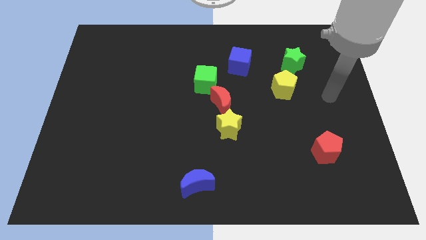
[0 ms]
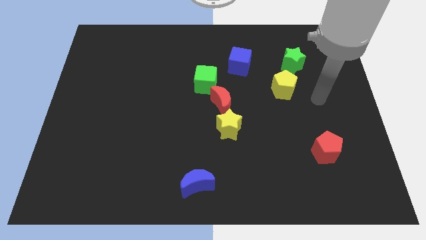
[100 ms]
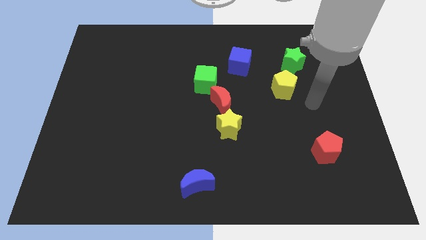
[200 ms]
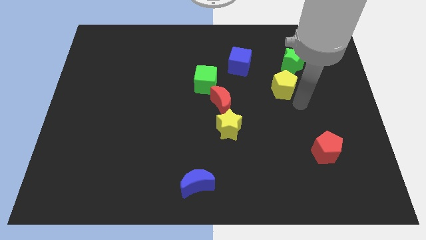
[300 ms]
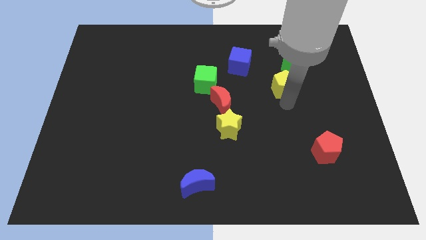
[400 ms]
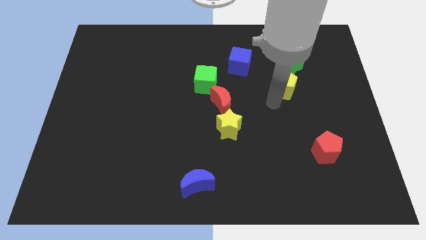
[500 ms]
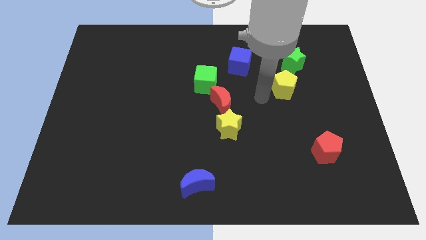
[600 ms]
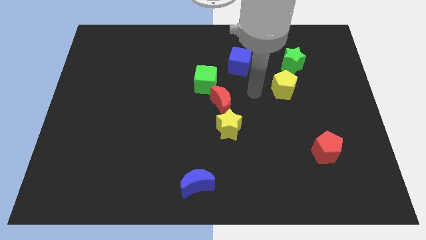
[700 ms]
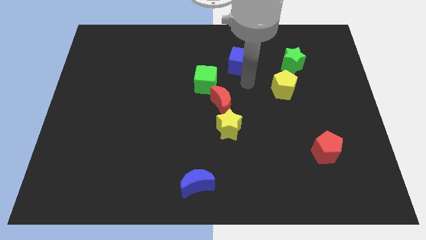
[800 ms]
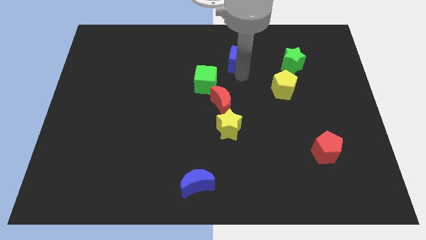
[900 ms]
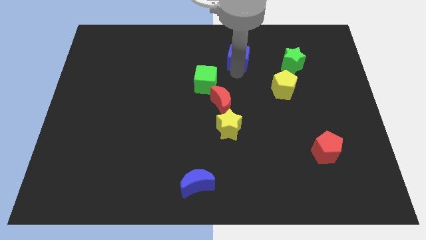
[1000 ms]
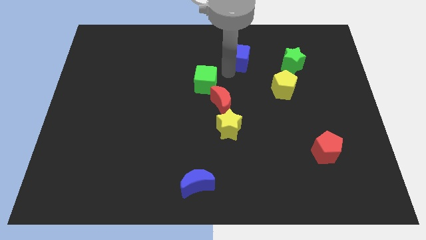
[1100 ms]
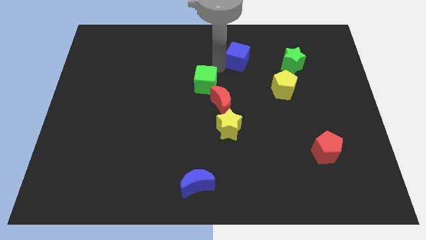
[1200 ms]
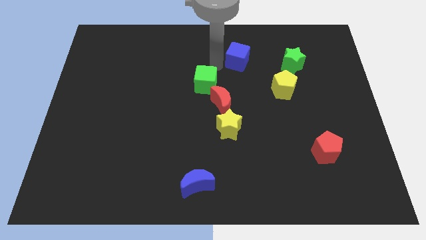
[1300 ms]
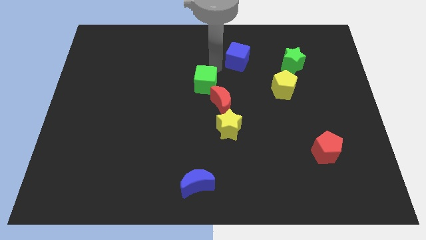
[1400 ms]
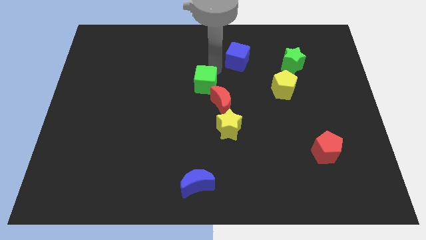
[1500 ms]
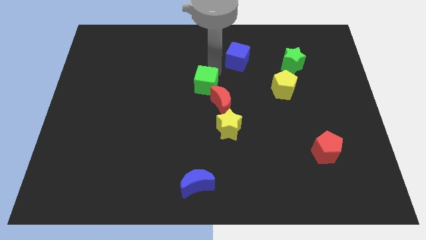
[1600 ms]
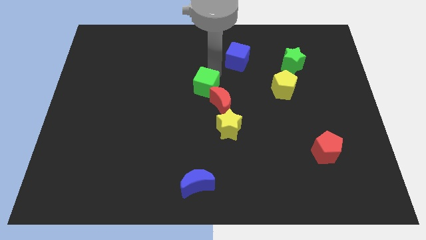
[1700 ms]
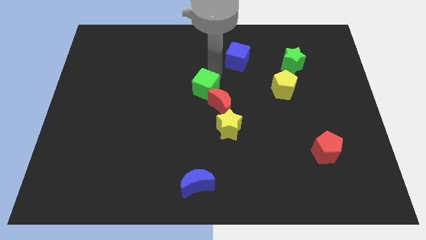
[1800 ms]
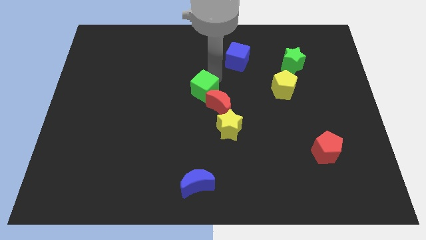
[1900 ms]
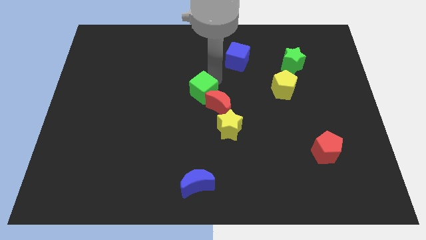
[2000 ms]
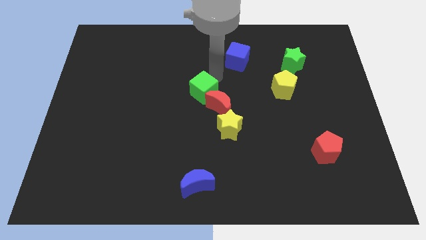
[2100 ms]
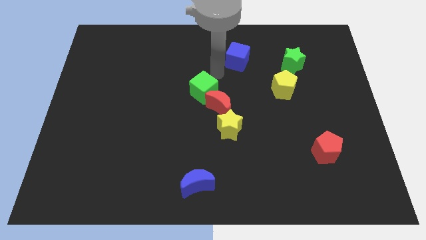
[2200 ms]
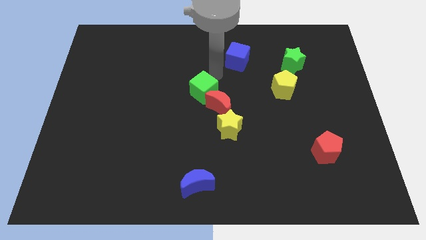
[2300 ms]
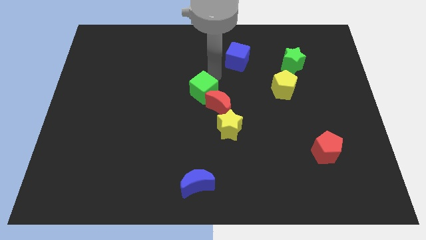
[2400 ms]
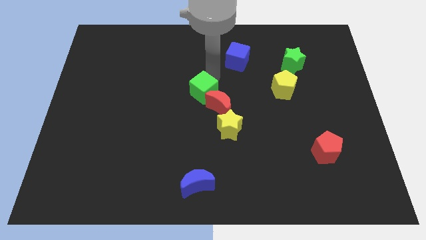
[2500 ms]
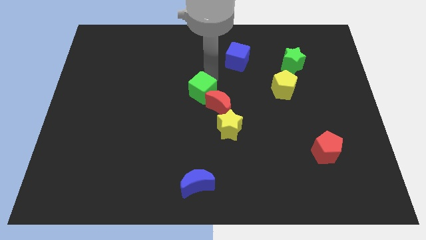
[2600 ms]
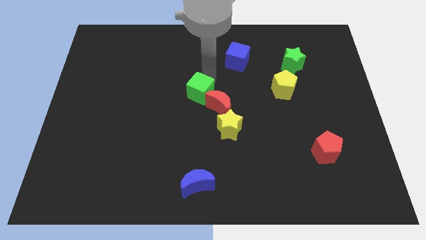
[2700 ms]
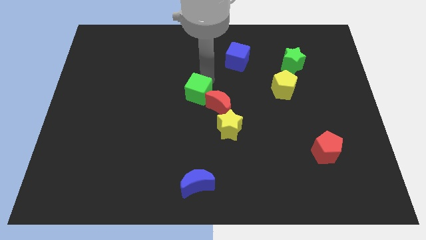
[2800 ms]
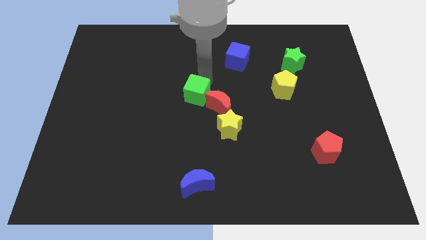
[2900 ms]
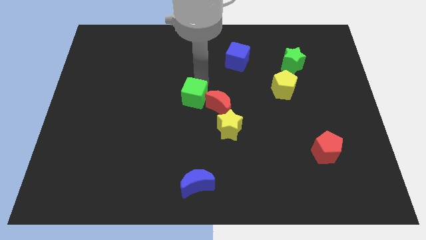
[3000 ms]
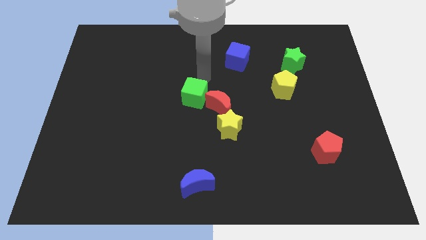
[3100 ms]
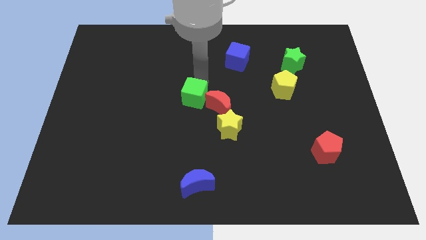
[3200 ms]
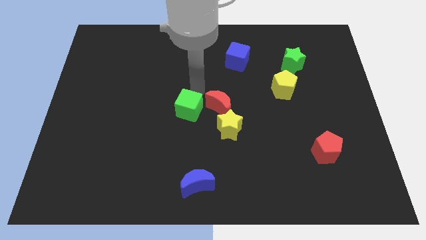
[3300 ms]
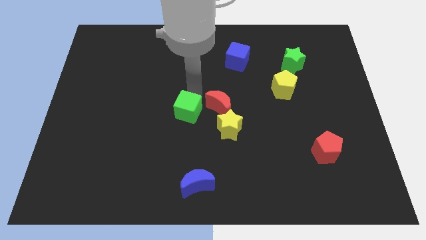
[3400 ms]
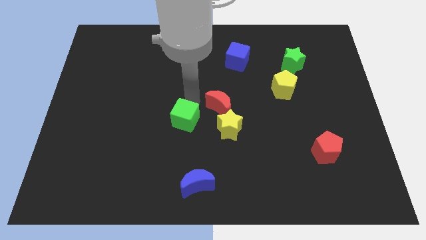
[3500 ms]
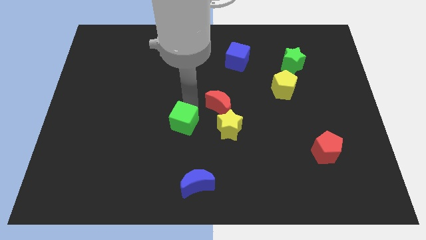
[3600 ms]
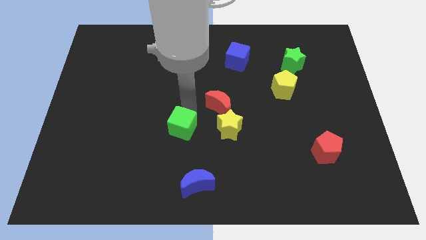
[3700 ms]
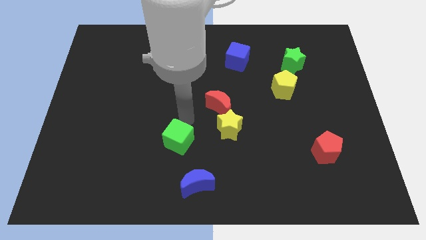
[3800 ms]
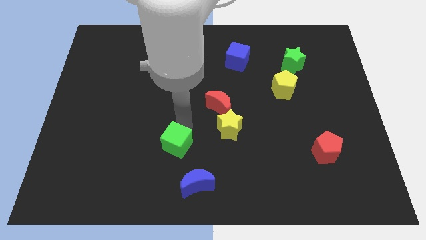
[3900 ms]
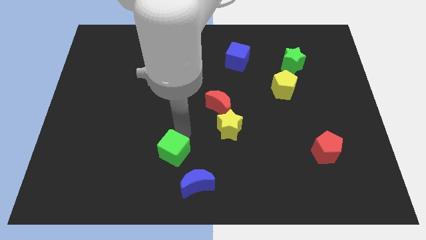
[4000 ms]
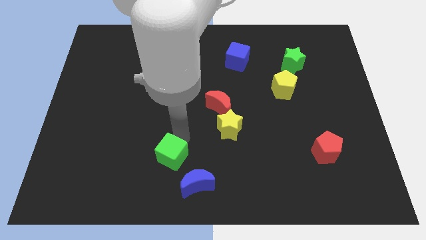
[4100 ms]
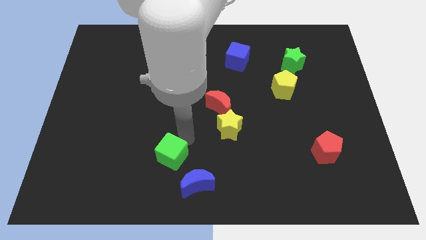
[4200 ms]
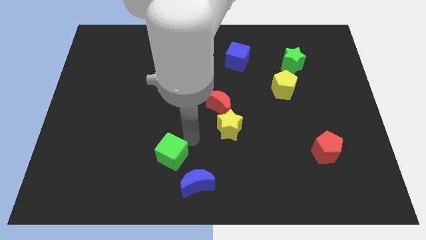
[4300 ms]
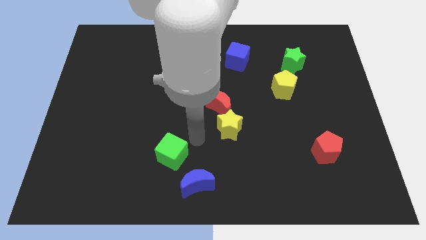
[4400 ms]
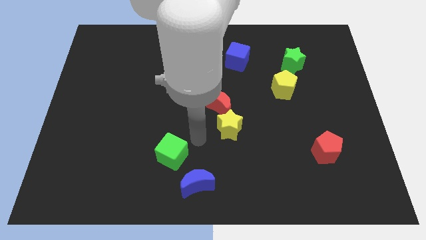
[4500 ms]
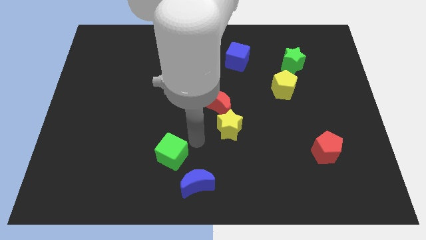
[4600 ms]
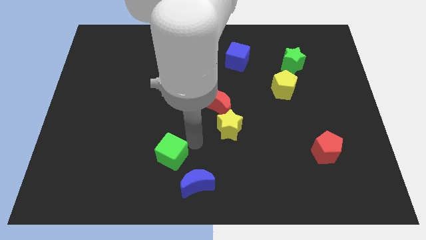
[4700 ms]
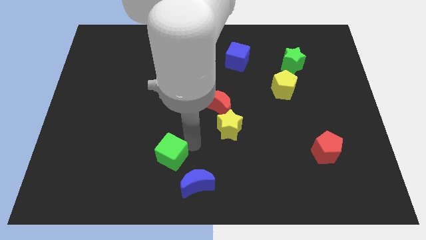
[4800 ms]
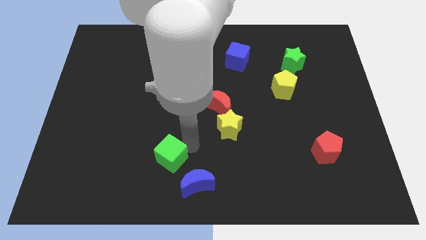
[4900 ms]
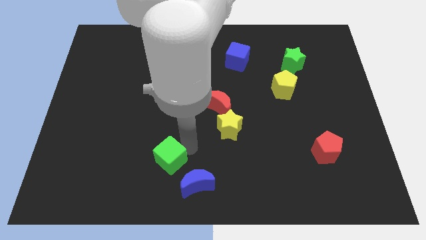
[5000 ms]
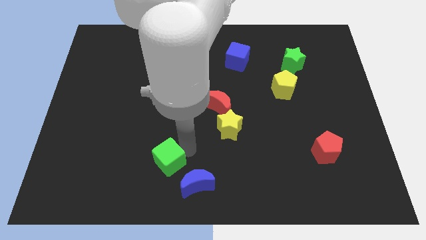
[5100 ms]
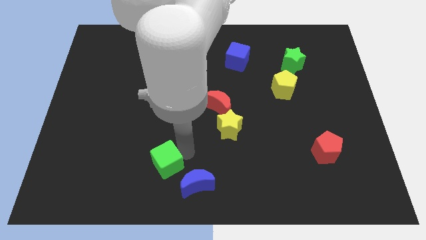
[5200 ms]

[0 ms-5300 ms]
put the green cube just left of the blue moon

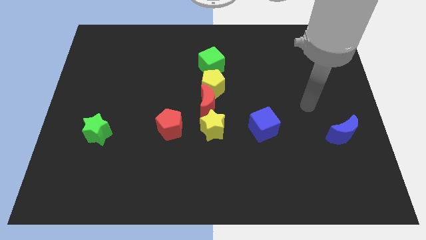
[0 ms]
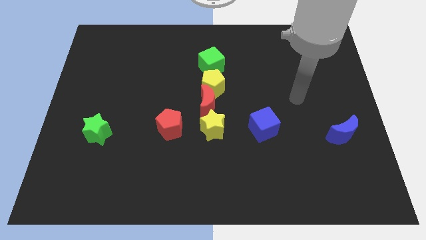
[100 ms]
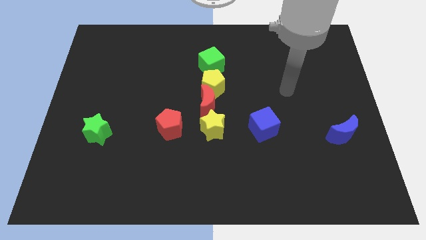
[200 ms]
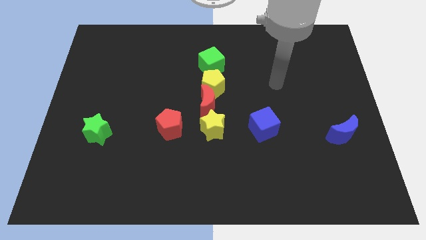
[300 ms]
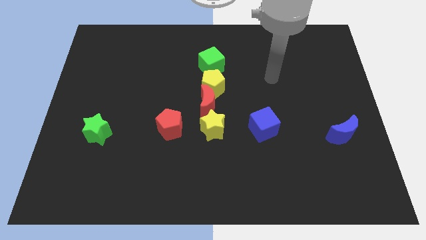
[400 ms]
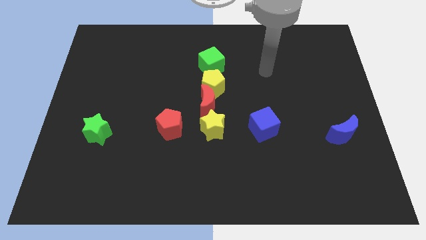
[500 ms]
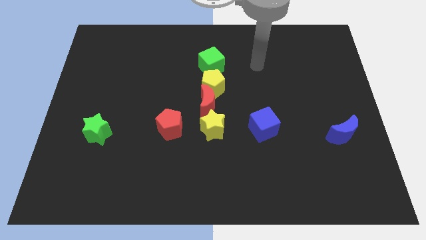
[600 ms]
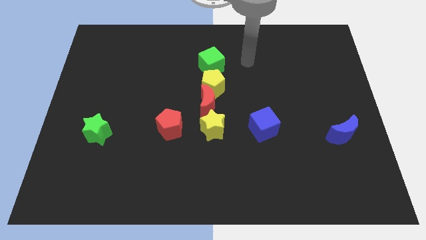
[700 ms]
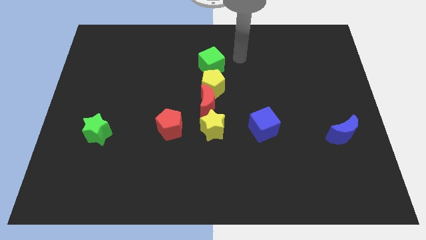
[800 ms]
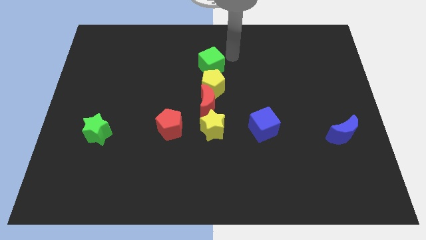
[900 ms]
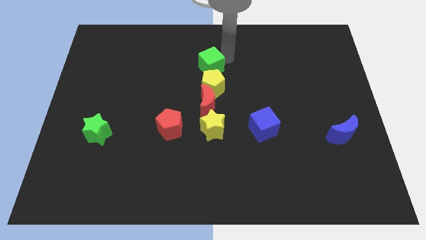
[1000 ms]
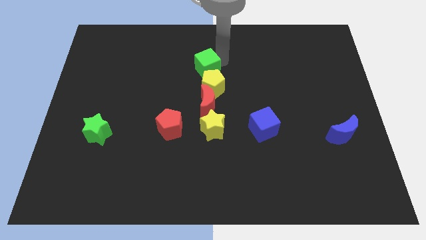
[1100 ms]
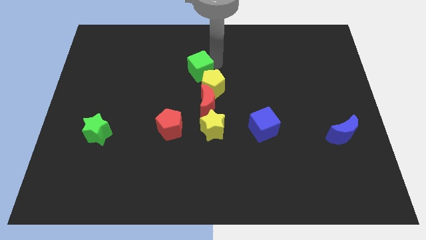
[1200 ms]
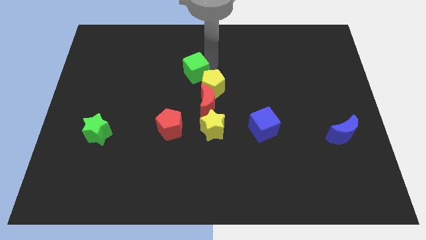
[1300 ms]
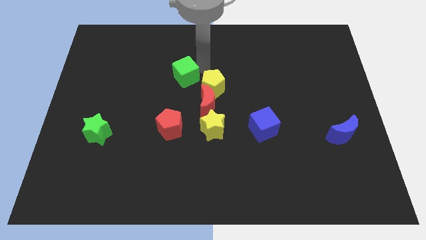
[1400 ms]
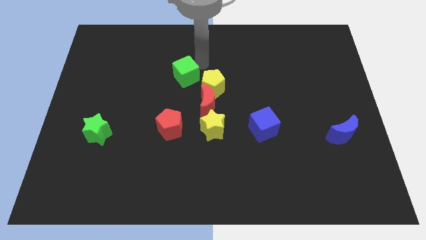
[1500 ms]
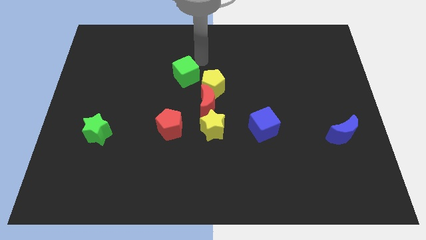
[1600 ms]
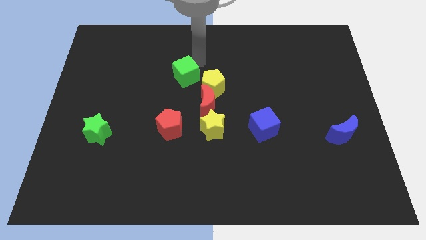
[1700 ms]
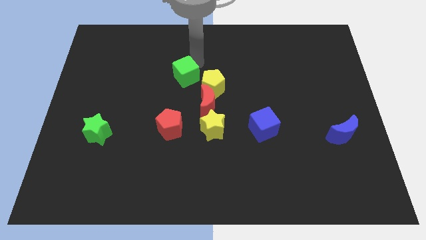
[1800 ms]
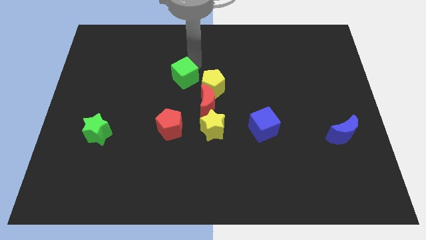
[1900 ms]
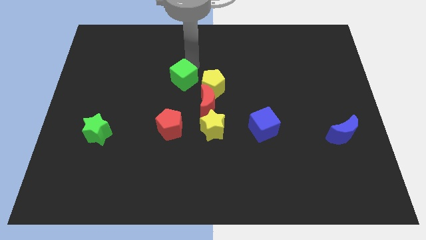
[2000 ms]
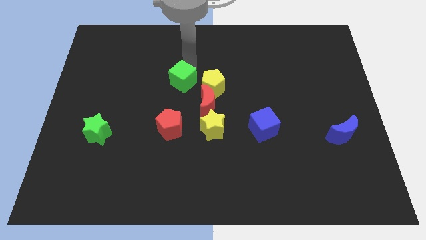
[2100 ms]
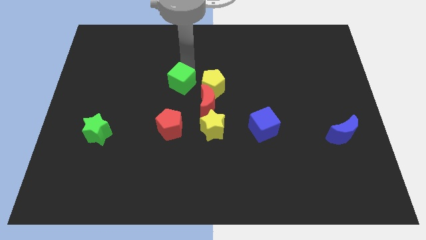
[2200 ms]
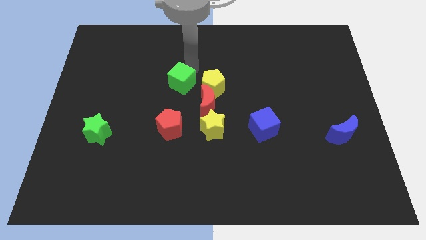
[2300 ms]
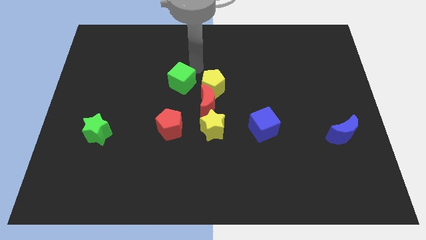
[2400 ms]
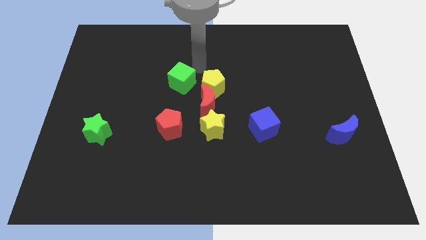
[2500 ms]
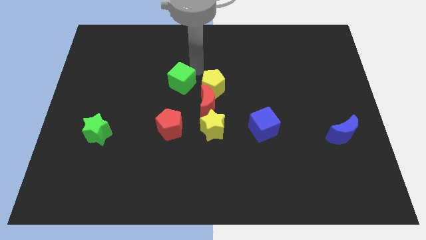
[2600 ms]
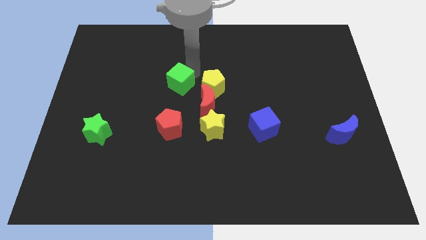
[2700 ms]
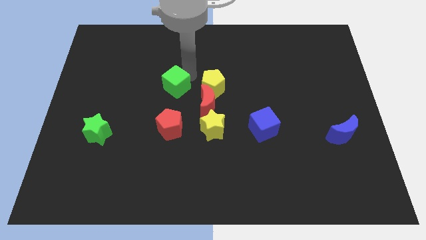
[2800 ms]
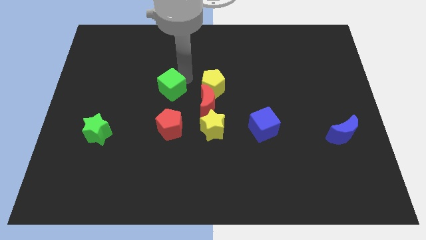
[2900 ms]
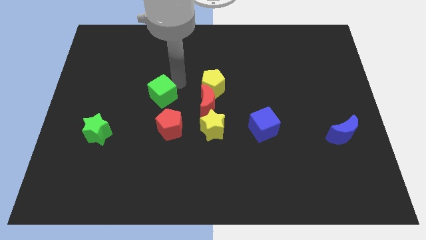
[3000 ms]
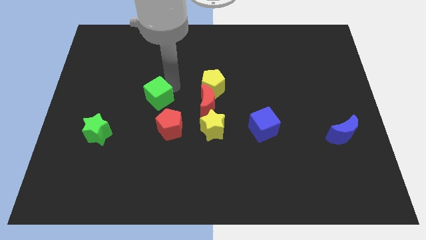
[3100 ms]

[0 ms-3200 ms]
slide the green cube to the top left of the red pentagon
